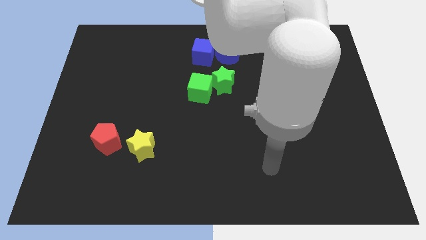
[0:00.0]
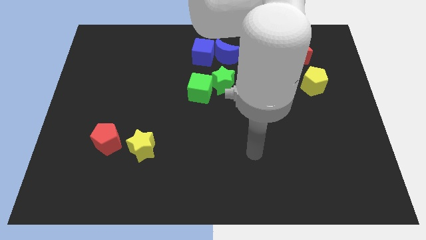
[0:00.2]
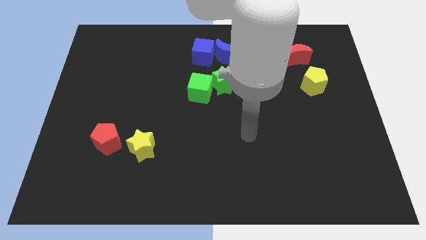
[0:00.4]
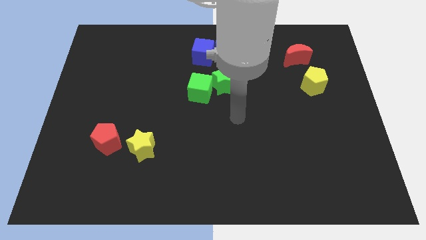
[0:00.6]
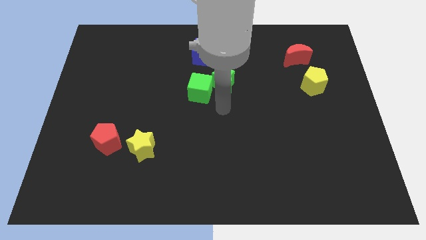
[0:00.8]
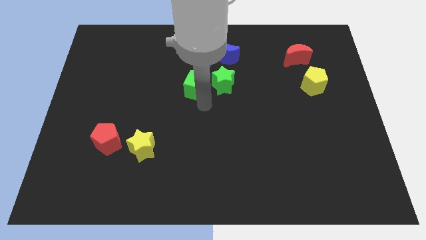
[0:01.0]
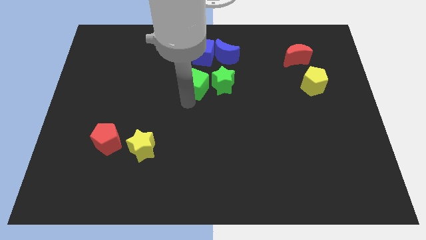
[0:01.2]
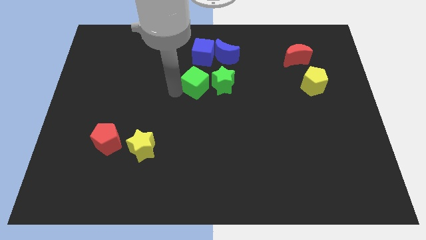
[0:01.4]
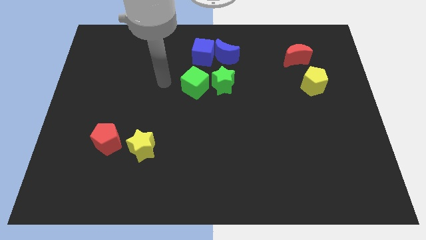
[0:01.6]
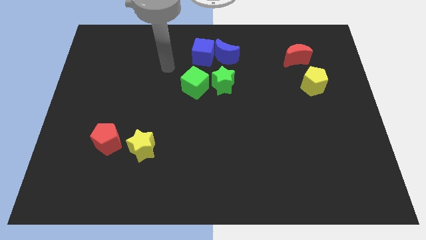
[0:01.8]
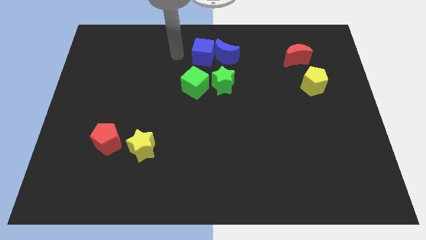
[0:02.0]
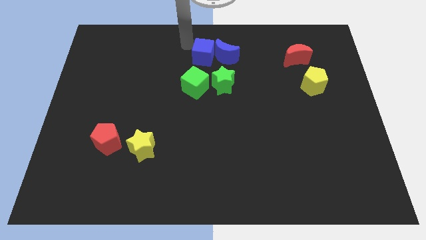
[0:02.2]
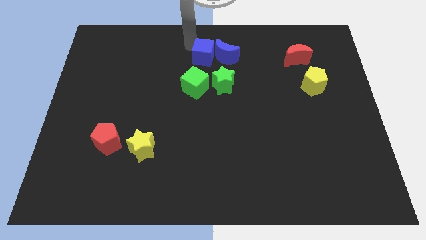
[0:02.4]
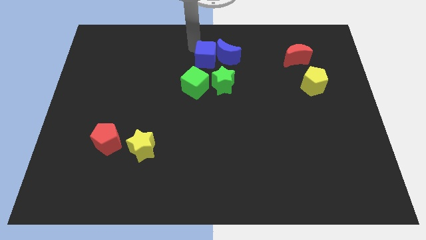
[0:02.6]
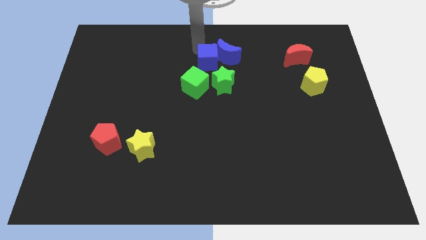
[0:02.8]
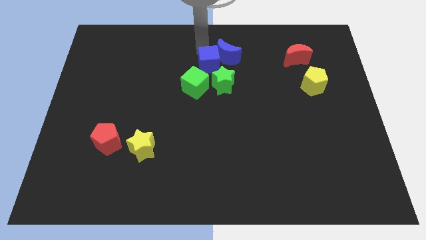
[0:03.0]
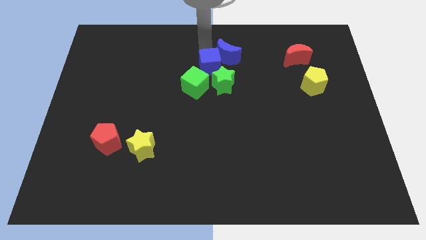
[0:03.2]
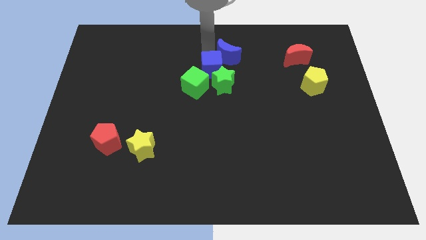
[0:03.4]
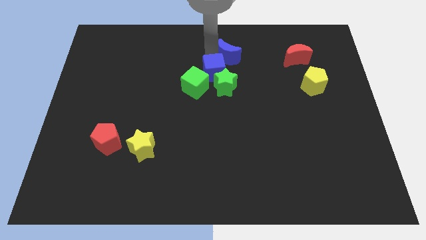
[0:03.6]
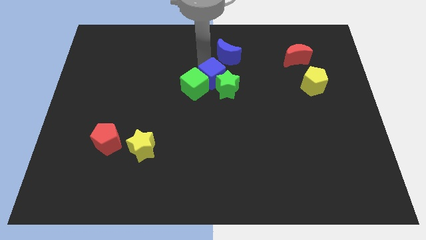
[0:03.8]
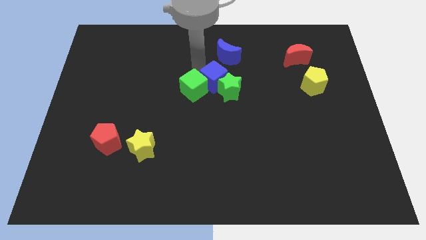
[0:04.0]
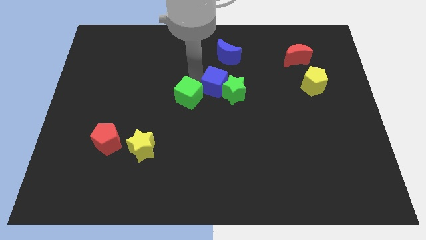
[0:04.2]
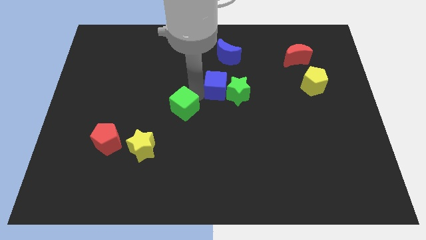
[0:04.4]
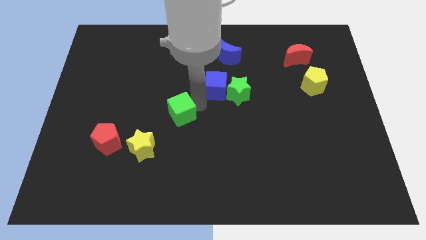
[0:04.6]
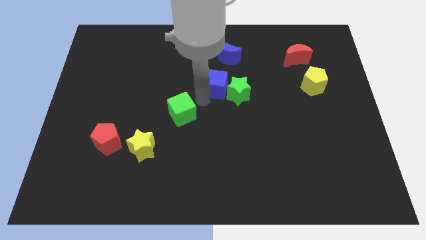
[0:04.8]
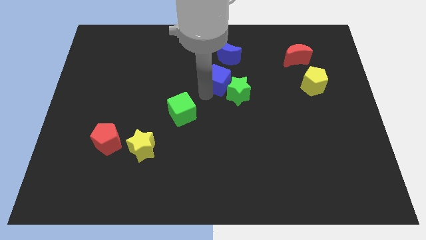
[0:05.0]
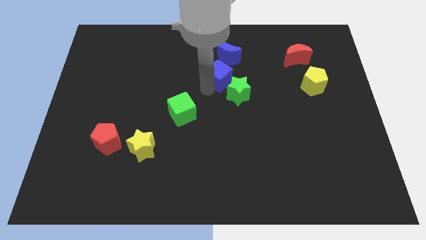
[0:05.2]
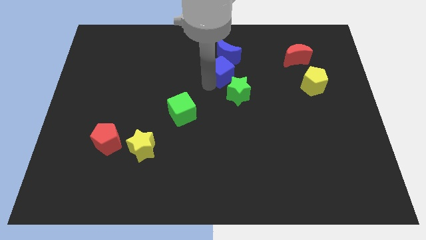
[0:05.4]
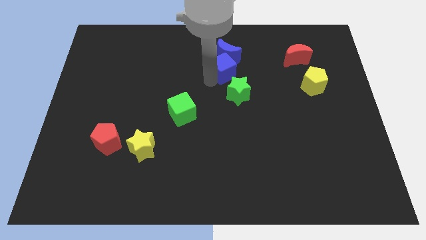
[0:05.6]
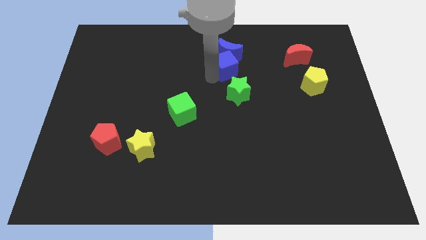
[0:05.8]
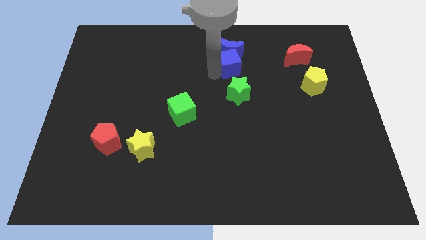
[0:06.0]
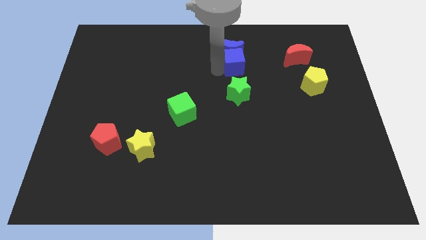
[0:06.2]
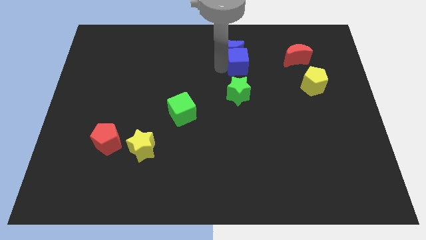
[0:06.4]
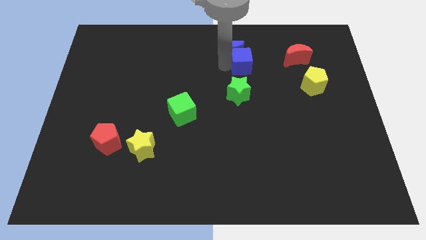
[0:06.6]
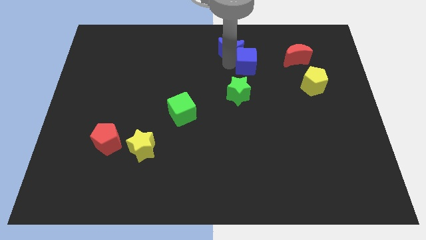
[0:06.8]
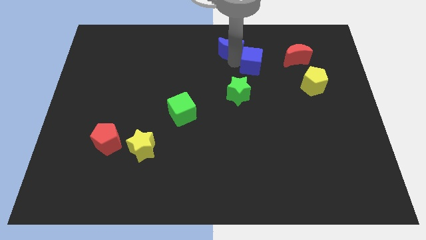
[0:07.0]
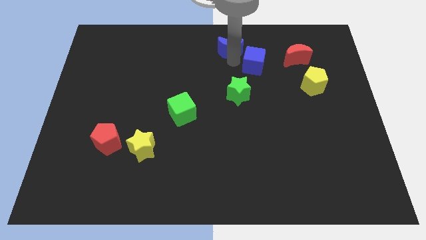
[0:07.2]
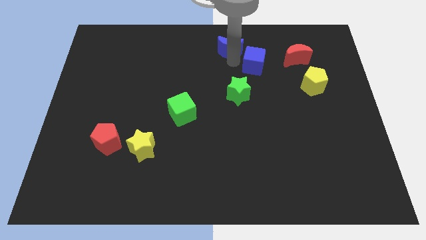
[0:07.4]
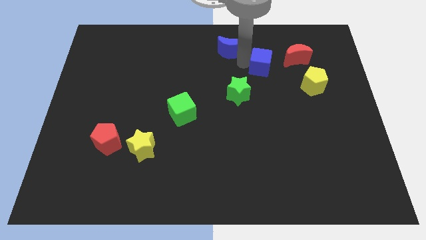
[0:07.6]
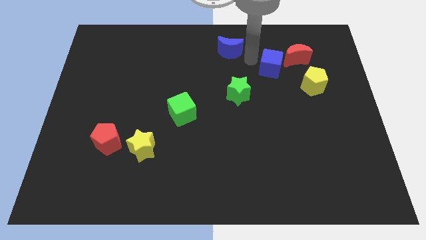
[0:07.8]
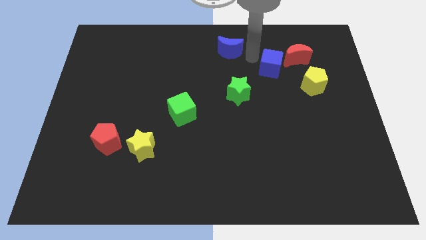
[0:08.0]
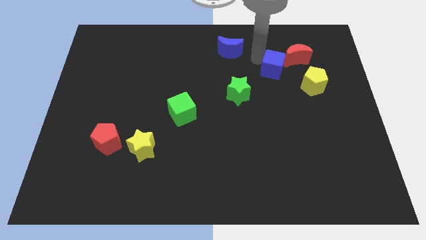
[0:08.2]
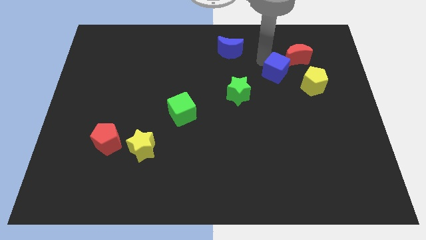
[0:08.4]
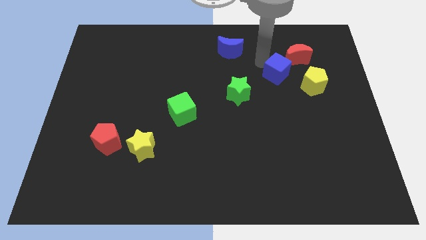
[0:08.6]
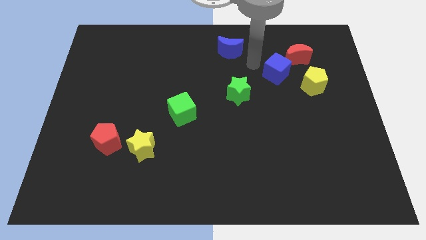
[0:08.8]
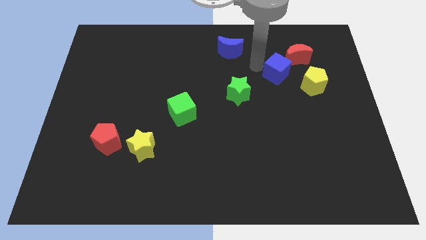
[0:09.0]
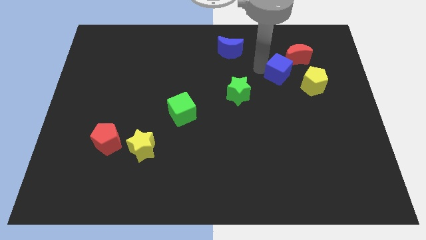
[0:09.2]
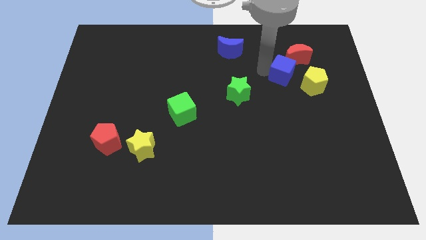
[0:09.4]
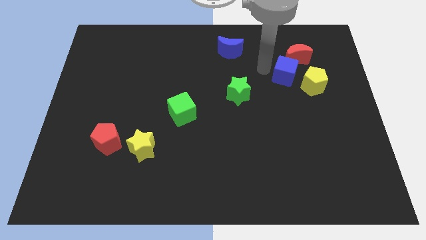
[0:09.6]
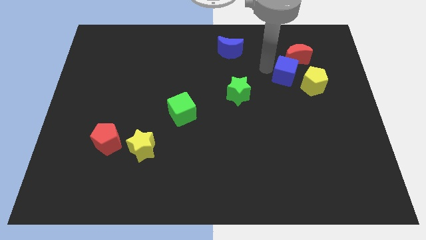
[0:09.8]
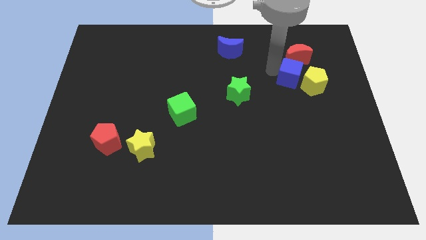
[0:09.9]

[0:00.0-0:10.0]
push the blue cube towards the yellow pentagon

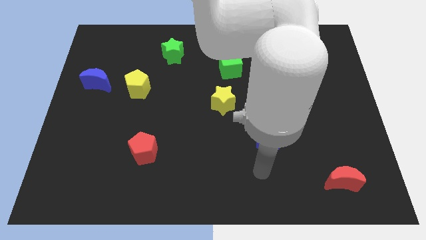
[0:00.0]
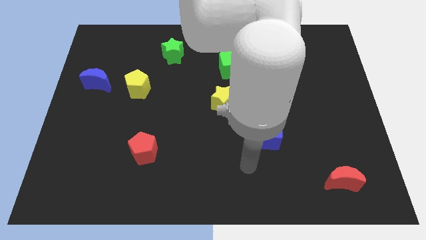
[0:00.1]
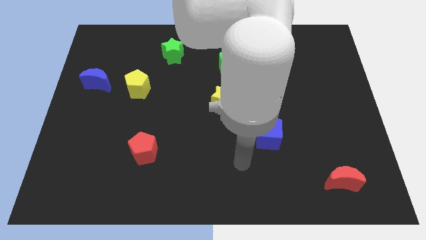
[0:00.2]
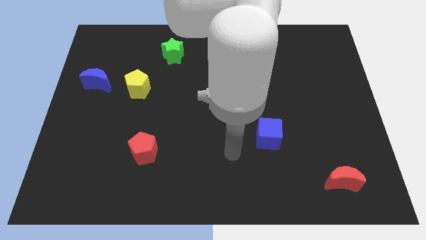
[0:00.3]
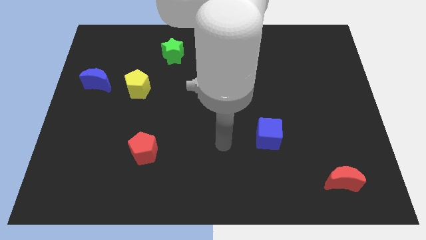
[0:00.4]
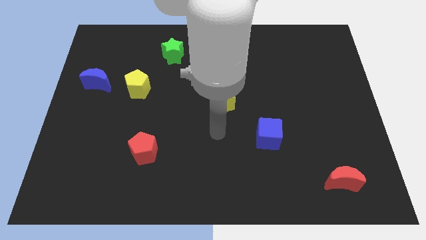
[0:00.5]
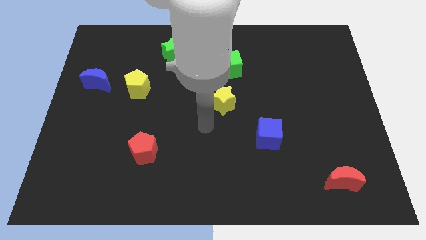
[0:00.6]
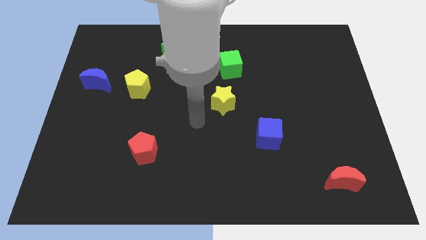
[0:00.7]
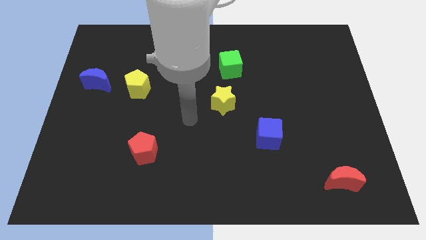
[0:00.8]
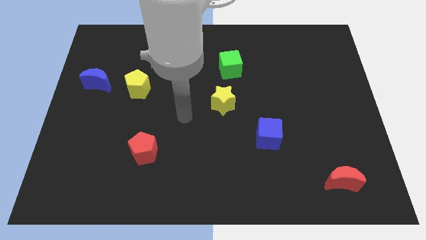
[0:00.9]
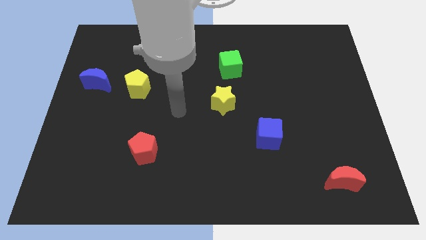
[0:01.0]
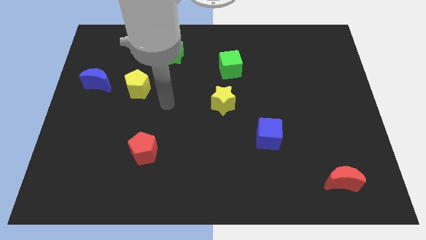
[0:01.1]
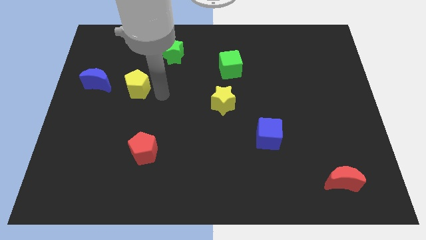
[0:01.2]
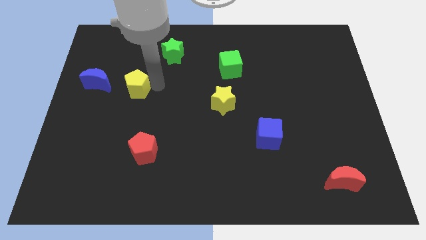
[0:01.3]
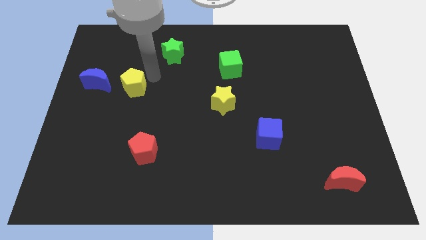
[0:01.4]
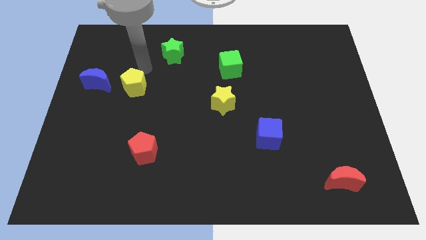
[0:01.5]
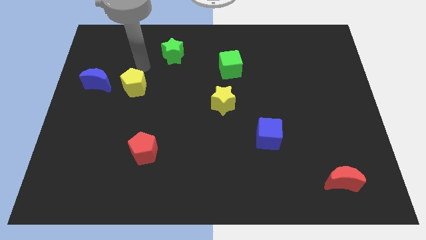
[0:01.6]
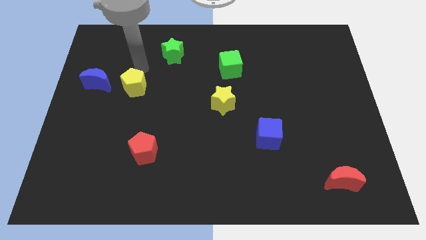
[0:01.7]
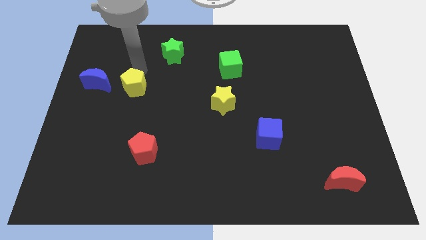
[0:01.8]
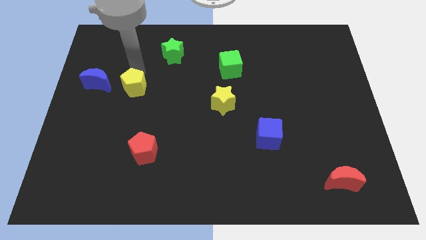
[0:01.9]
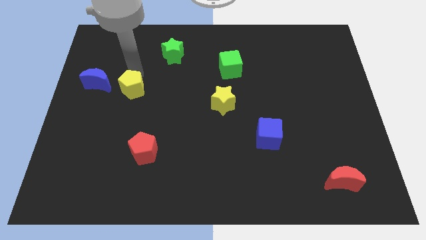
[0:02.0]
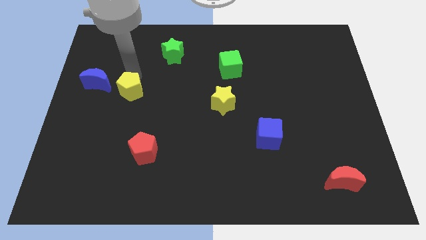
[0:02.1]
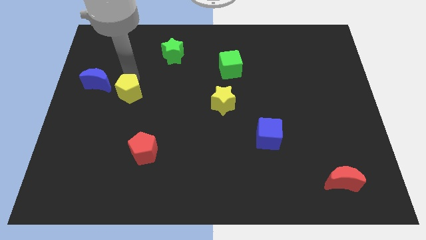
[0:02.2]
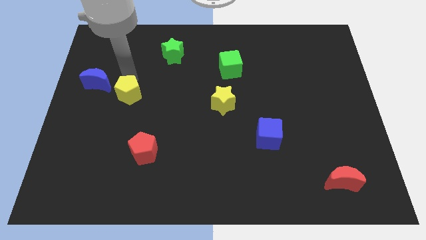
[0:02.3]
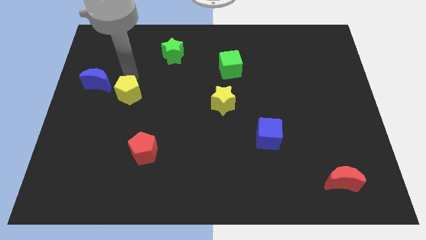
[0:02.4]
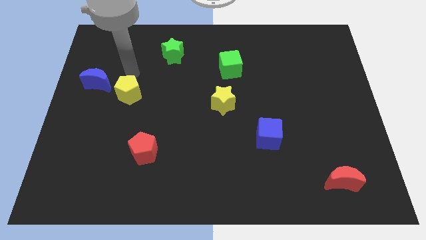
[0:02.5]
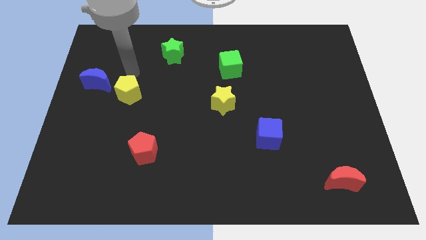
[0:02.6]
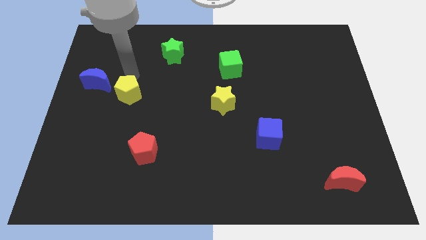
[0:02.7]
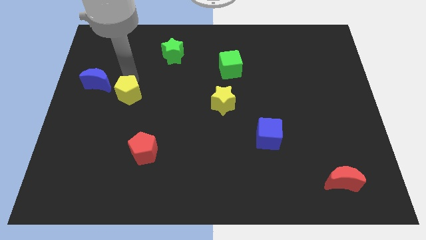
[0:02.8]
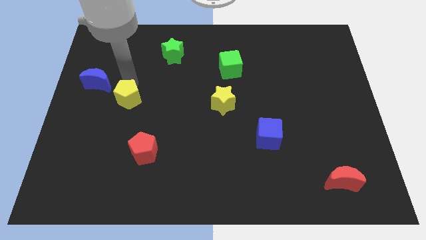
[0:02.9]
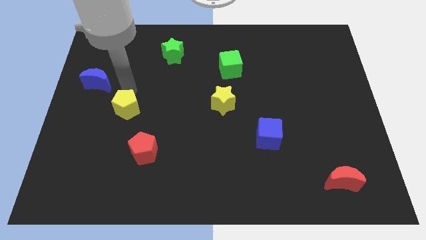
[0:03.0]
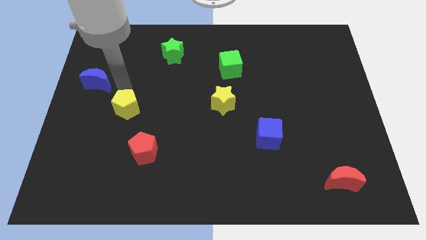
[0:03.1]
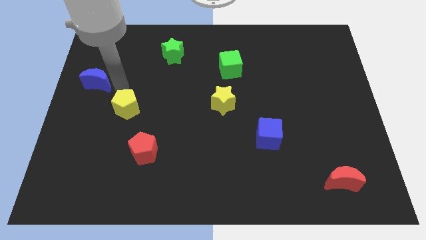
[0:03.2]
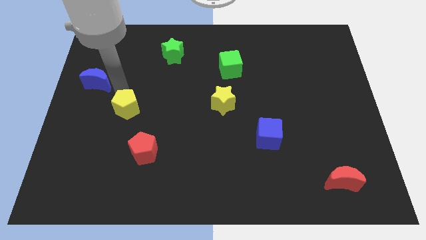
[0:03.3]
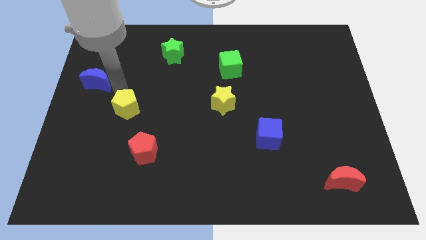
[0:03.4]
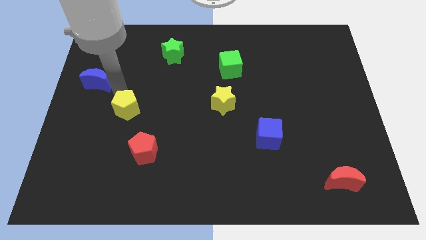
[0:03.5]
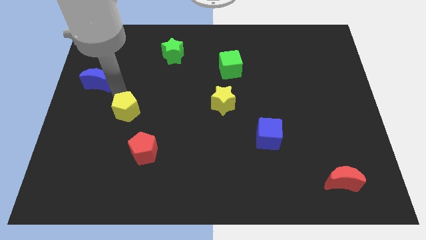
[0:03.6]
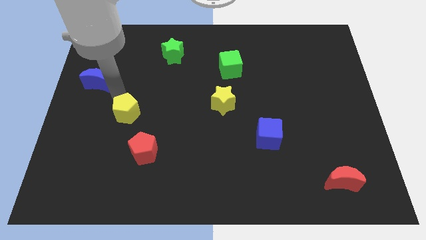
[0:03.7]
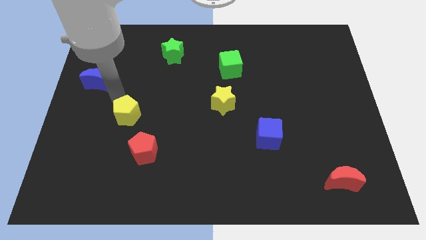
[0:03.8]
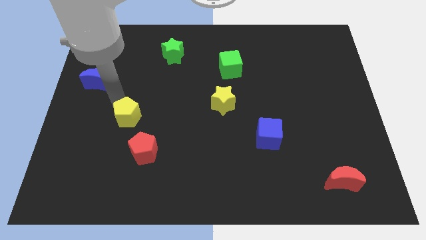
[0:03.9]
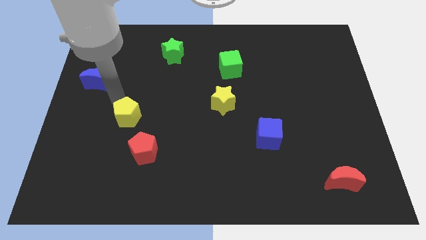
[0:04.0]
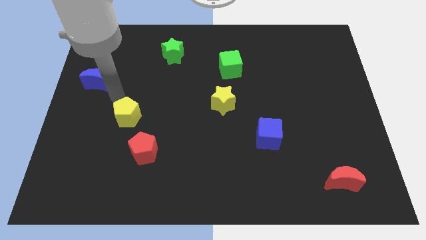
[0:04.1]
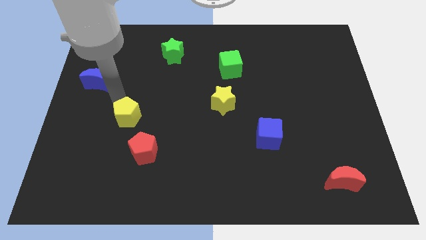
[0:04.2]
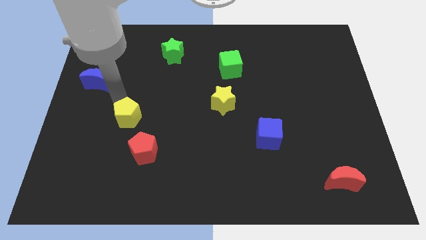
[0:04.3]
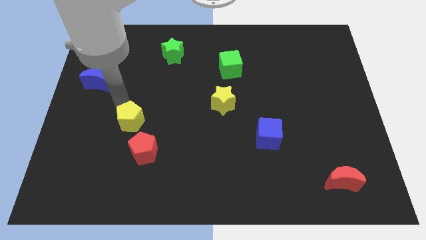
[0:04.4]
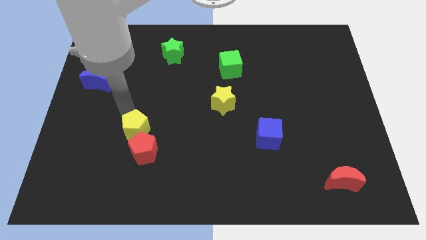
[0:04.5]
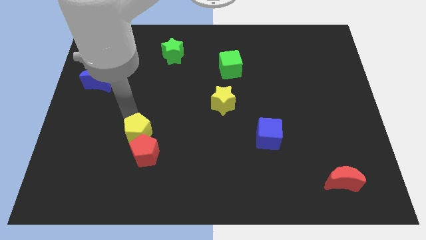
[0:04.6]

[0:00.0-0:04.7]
put the yellow pentagon to the red pentagon
